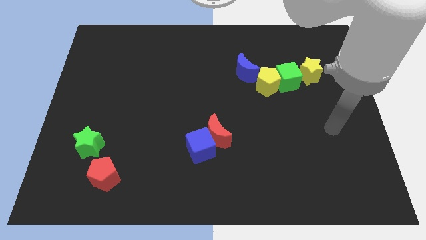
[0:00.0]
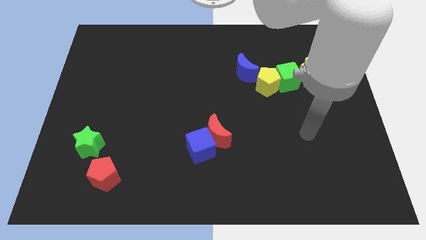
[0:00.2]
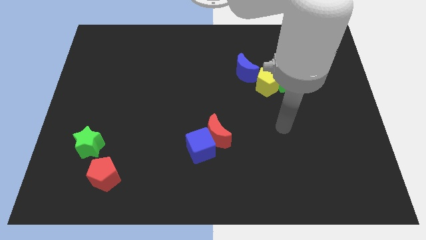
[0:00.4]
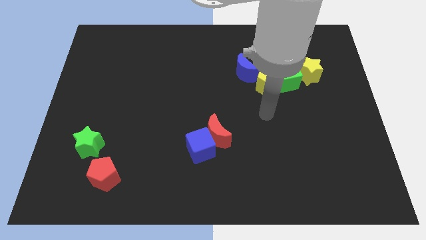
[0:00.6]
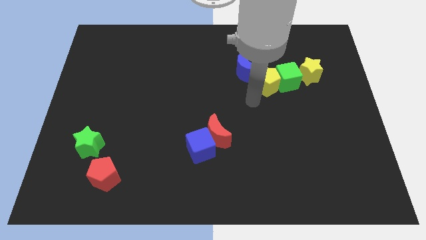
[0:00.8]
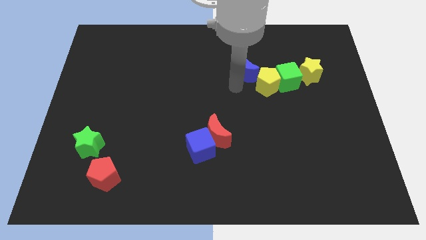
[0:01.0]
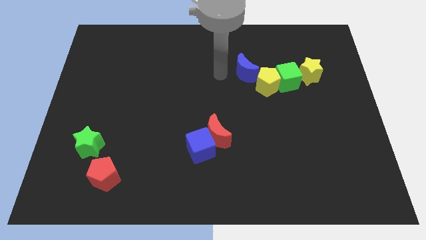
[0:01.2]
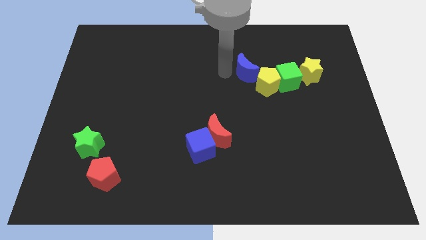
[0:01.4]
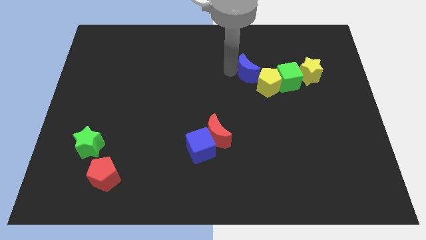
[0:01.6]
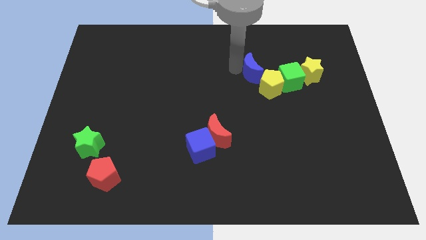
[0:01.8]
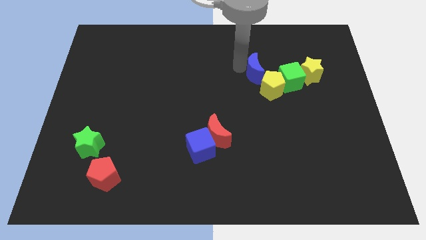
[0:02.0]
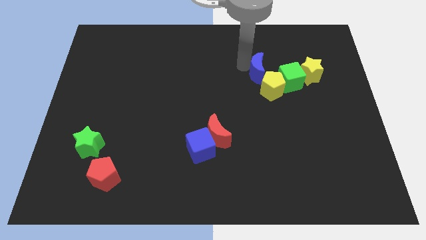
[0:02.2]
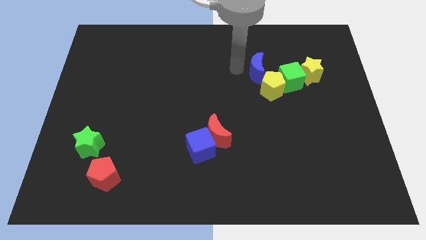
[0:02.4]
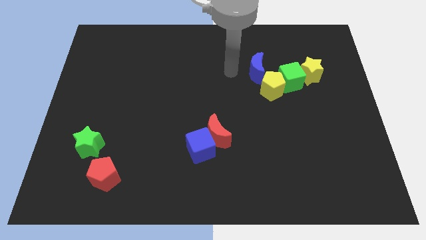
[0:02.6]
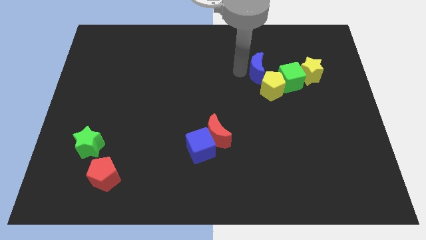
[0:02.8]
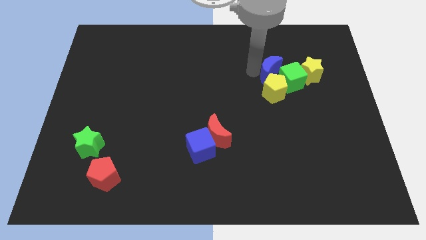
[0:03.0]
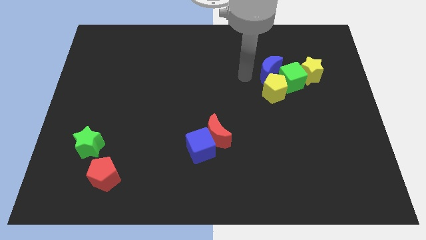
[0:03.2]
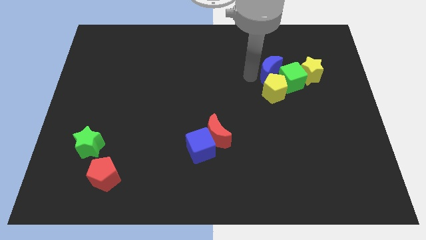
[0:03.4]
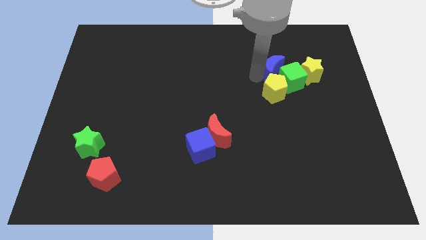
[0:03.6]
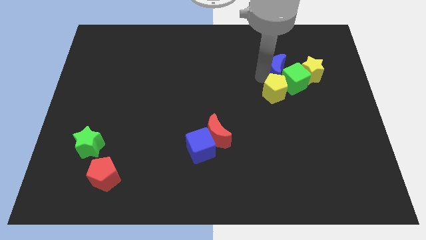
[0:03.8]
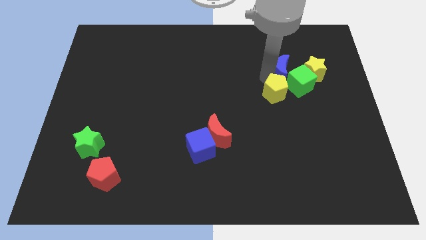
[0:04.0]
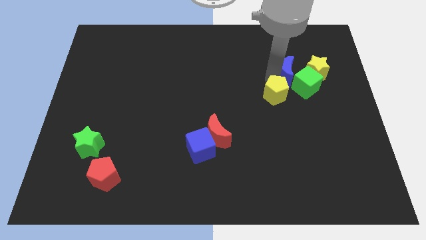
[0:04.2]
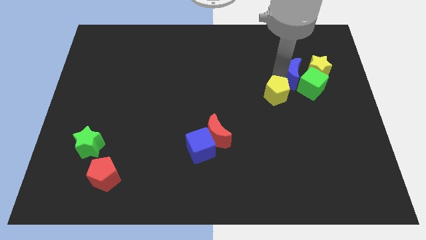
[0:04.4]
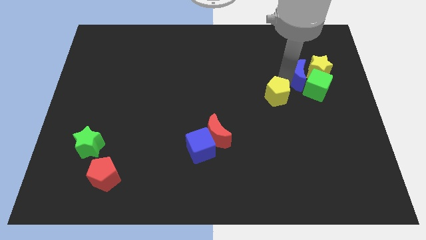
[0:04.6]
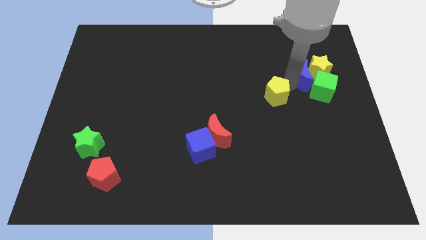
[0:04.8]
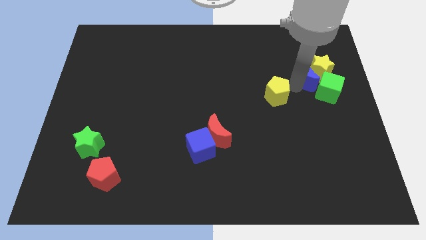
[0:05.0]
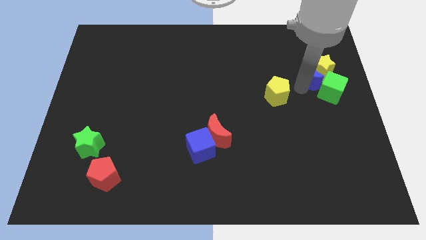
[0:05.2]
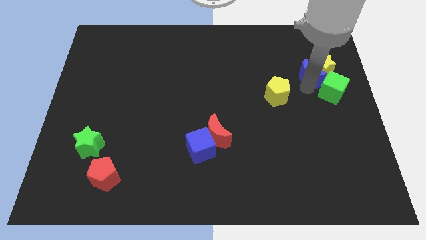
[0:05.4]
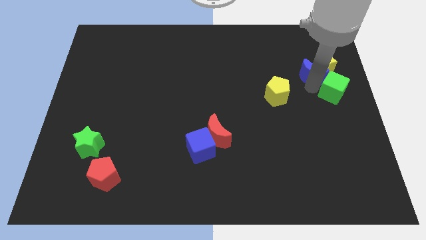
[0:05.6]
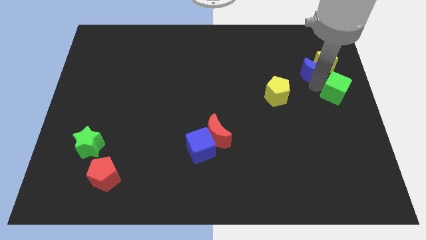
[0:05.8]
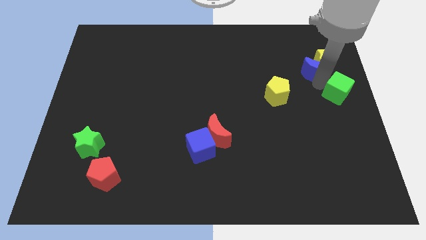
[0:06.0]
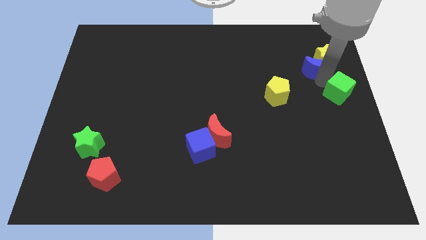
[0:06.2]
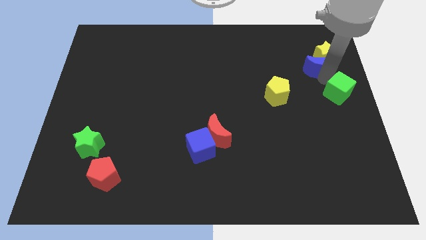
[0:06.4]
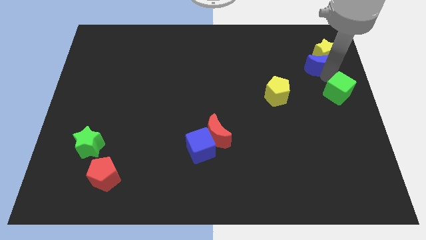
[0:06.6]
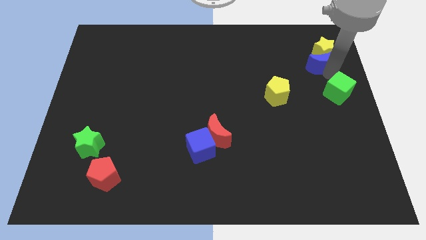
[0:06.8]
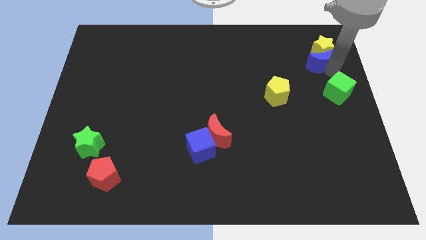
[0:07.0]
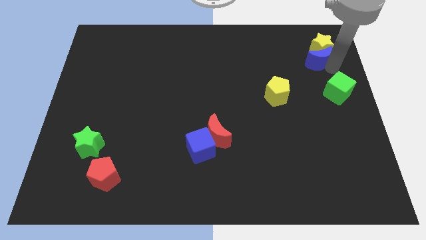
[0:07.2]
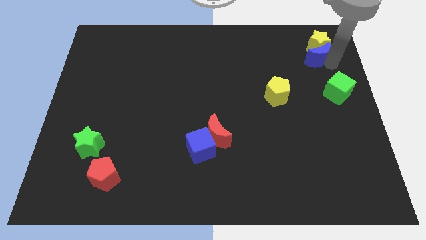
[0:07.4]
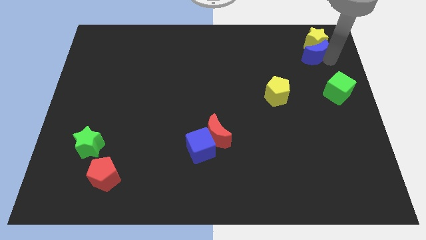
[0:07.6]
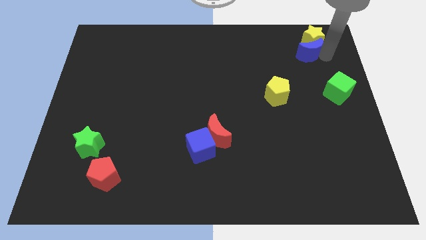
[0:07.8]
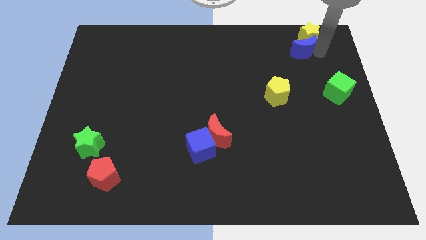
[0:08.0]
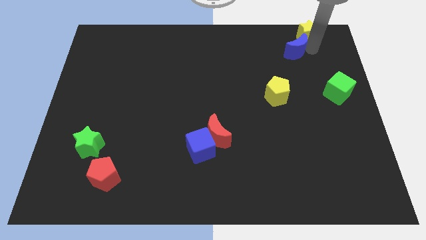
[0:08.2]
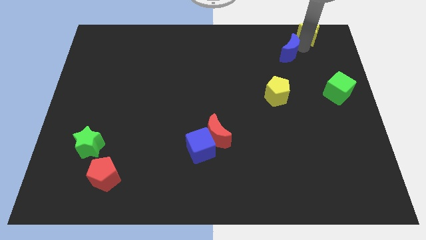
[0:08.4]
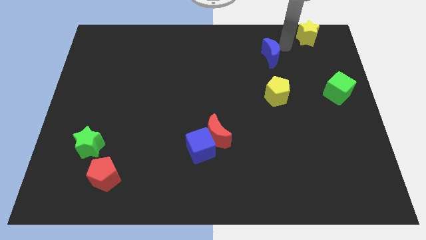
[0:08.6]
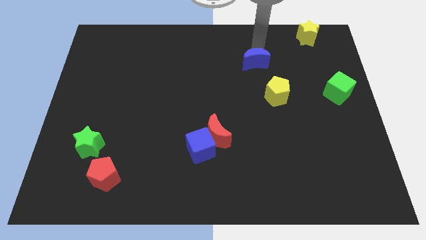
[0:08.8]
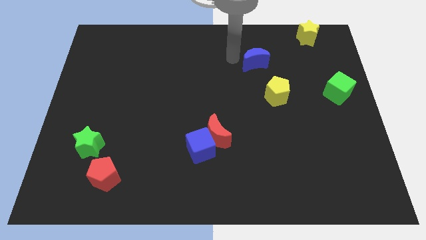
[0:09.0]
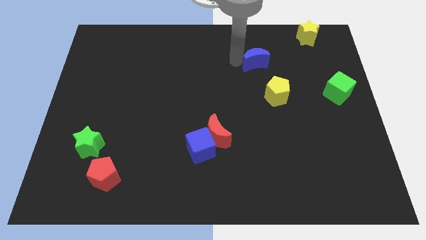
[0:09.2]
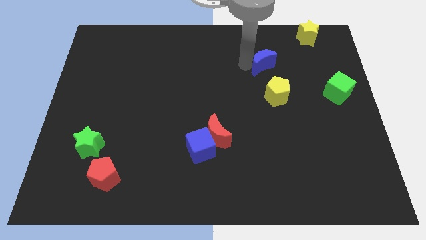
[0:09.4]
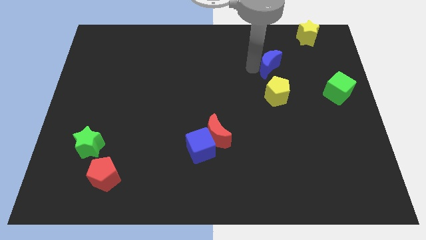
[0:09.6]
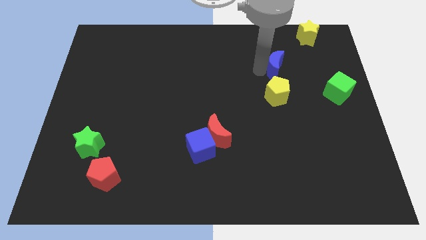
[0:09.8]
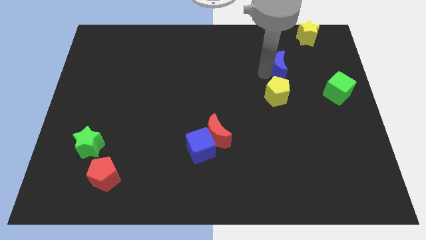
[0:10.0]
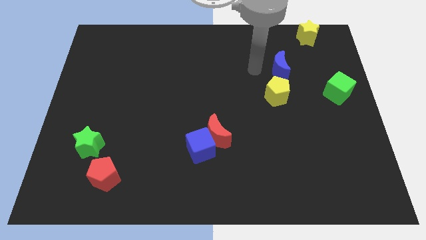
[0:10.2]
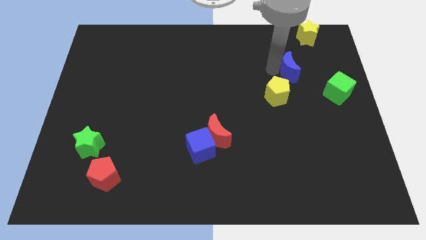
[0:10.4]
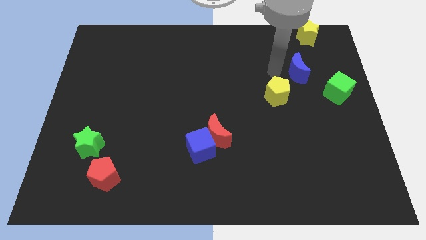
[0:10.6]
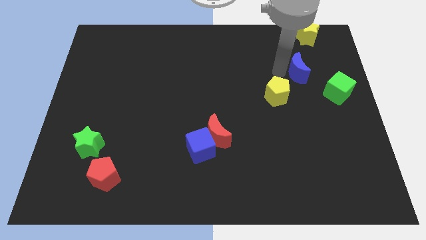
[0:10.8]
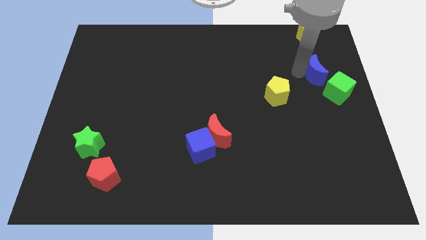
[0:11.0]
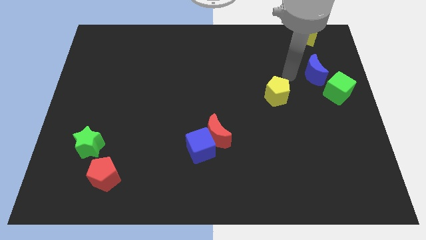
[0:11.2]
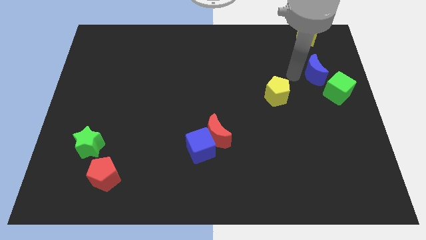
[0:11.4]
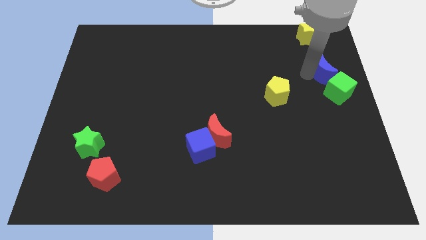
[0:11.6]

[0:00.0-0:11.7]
push the blue moon to the right side of the board

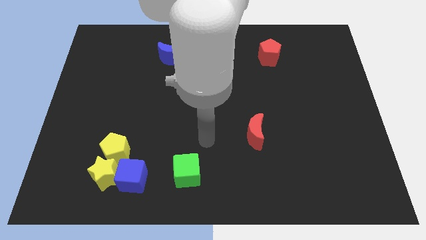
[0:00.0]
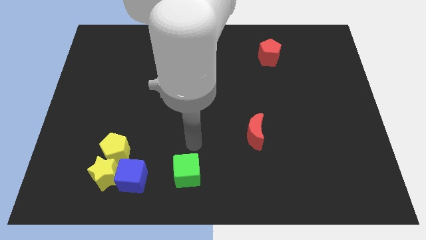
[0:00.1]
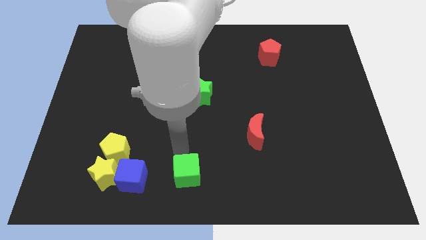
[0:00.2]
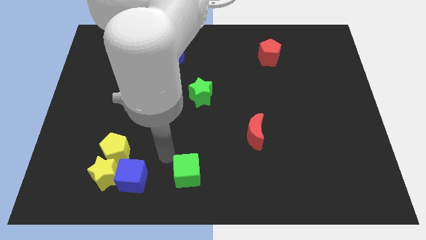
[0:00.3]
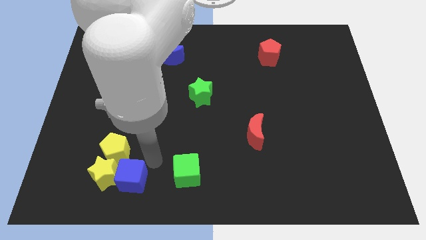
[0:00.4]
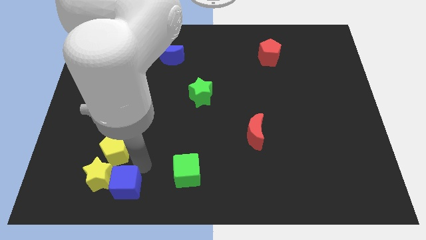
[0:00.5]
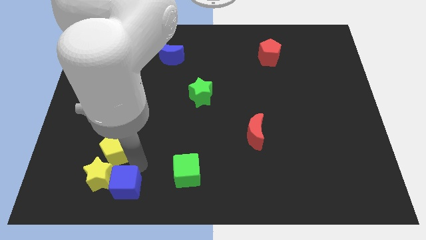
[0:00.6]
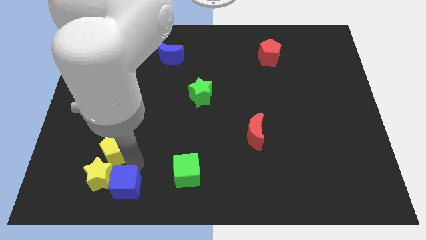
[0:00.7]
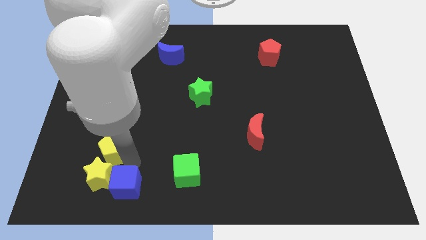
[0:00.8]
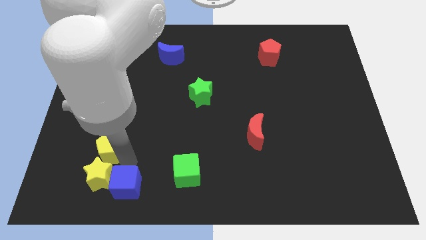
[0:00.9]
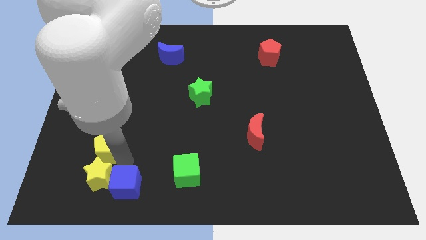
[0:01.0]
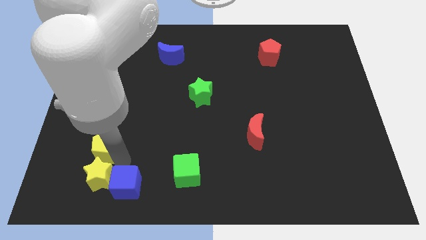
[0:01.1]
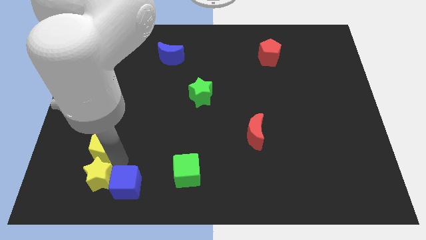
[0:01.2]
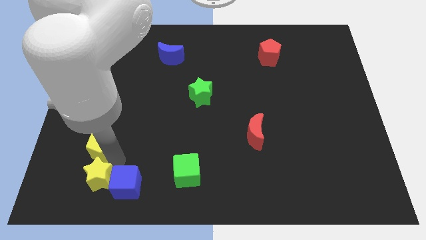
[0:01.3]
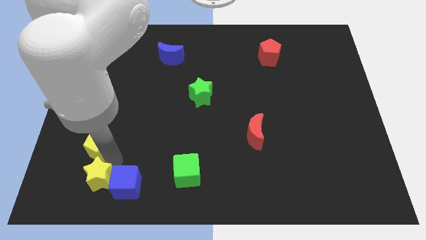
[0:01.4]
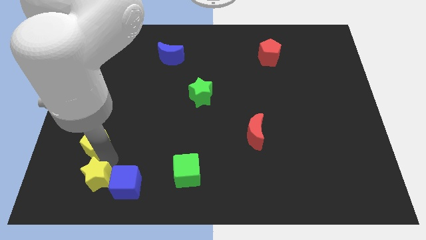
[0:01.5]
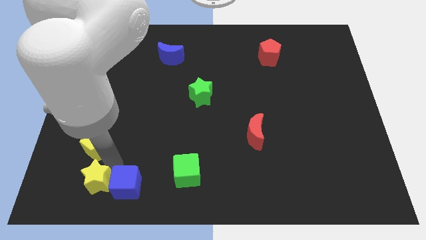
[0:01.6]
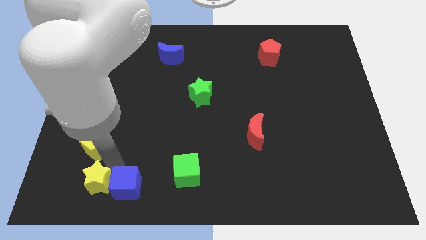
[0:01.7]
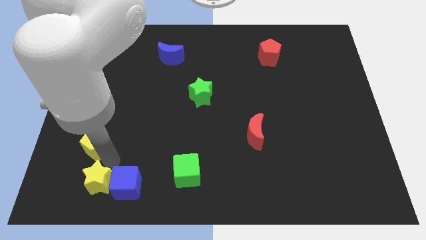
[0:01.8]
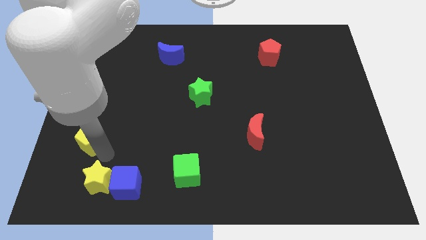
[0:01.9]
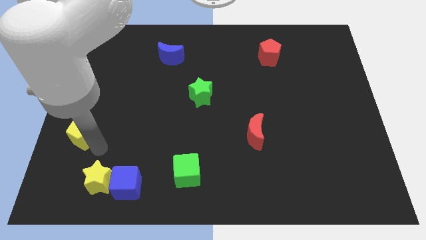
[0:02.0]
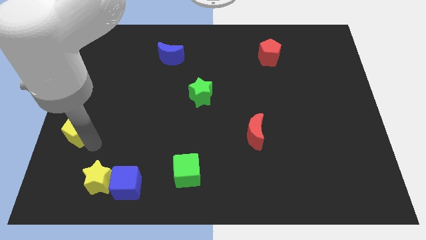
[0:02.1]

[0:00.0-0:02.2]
slide the yellow pentagon to the left side of the board
